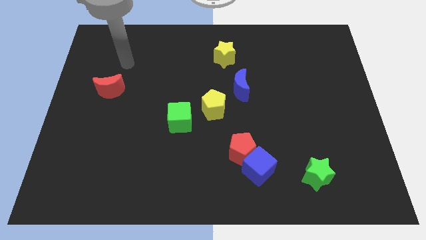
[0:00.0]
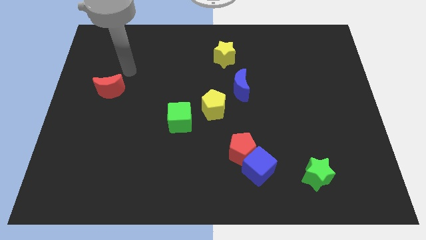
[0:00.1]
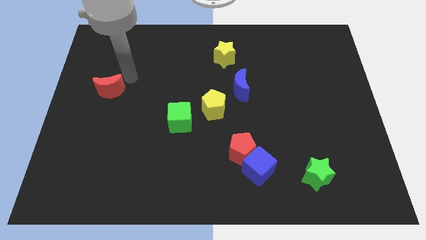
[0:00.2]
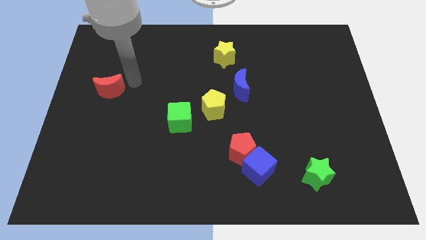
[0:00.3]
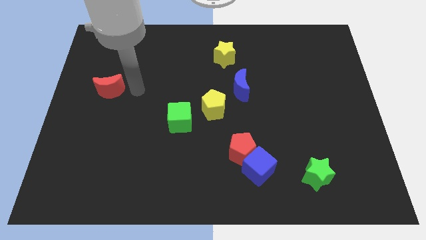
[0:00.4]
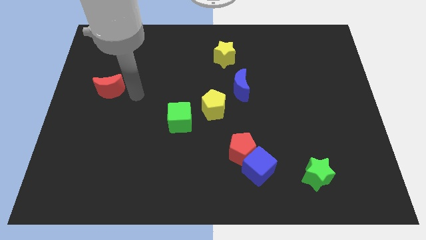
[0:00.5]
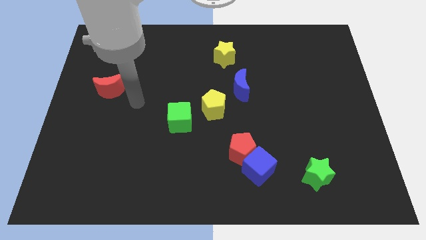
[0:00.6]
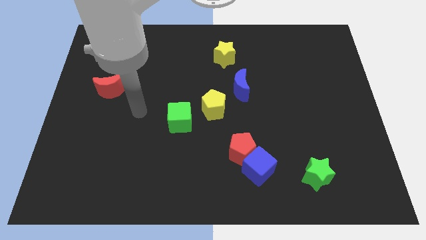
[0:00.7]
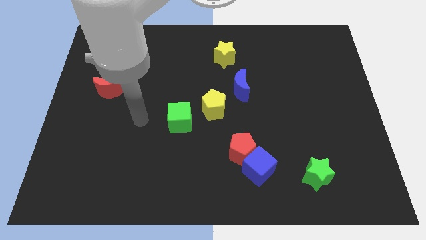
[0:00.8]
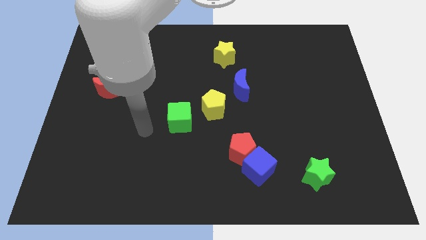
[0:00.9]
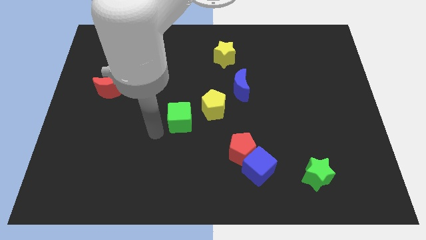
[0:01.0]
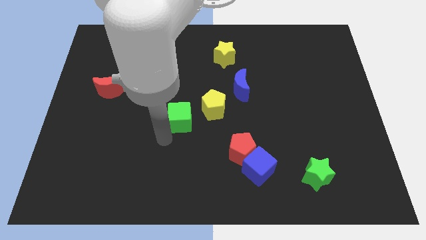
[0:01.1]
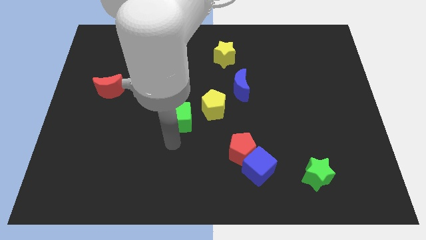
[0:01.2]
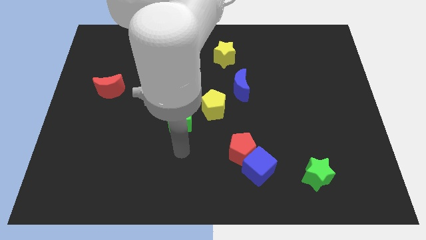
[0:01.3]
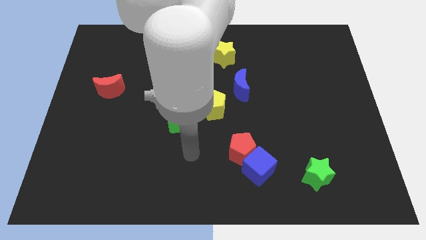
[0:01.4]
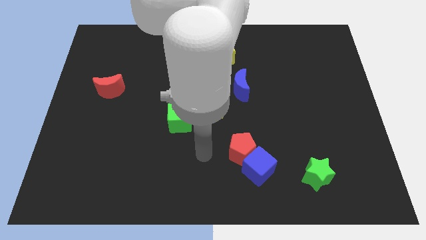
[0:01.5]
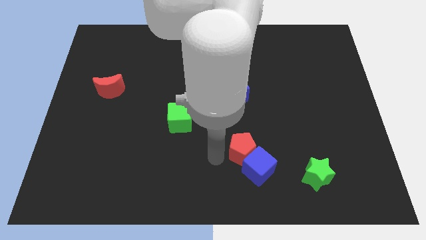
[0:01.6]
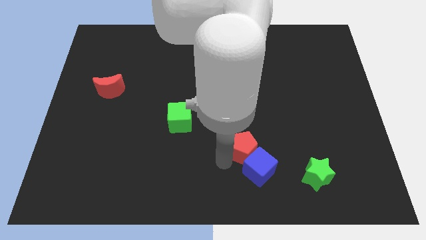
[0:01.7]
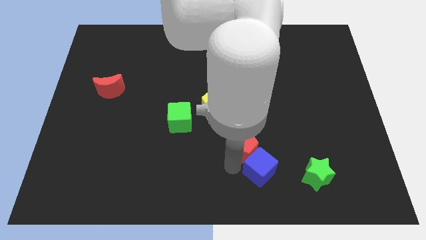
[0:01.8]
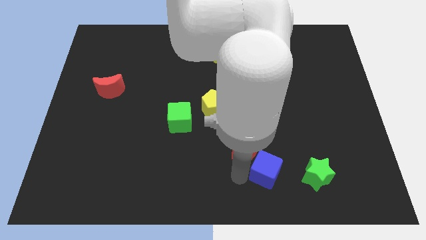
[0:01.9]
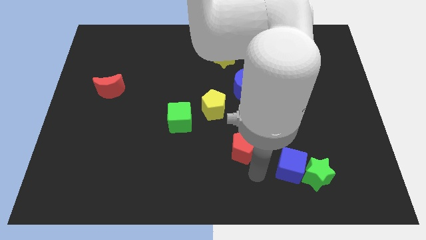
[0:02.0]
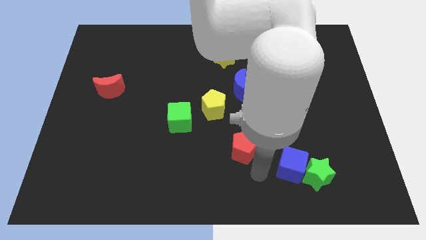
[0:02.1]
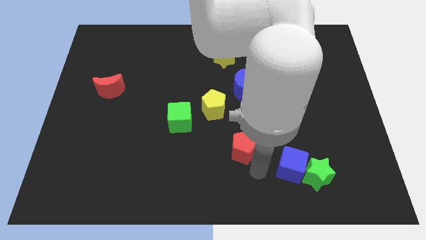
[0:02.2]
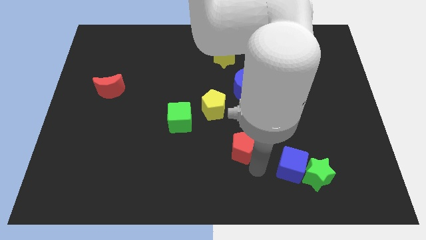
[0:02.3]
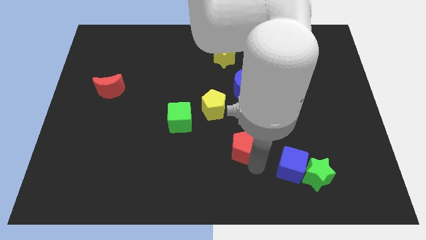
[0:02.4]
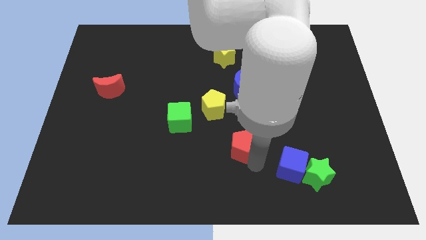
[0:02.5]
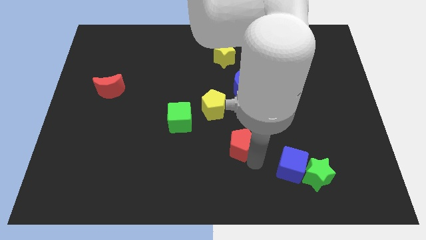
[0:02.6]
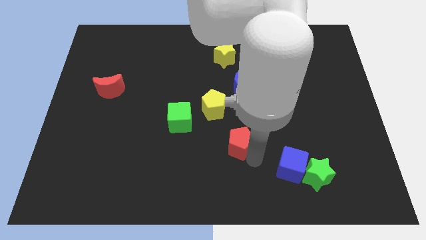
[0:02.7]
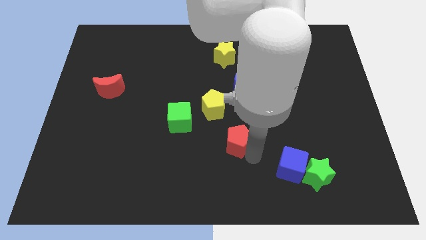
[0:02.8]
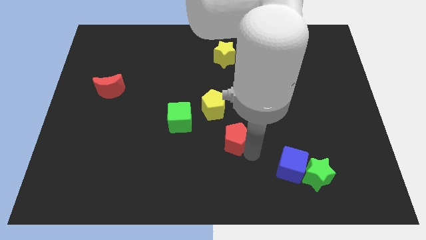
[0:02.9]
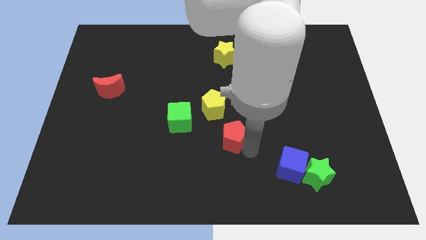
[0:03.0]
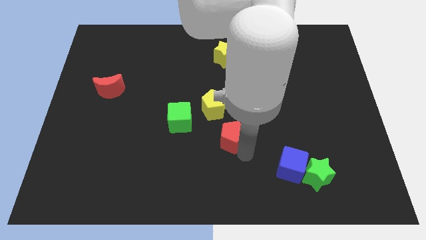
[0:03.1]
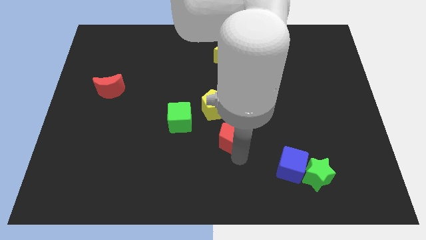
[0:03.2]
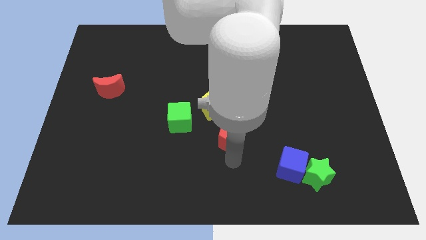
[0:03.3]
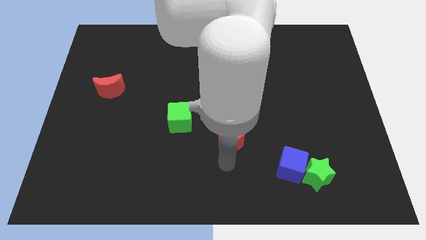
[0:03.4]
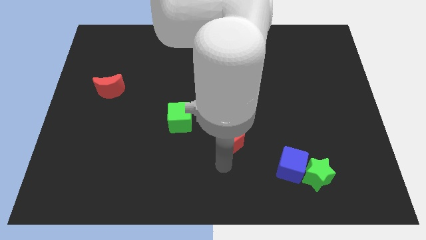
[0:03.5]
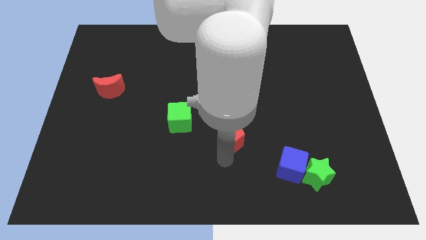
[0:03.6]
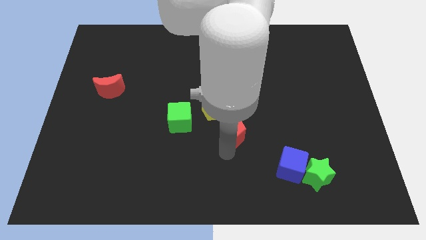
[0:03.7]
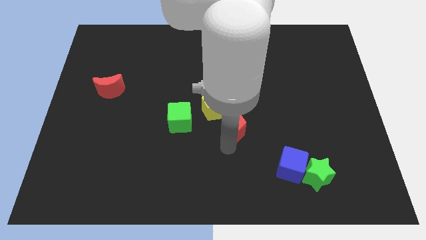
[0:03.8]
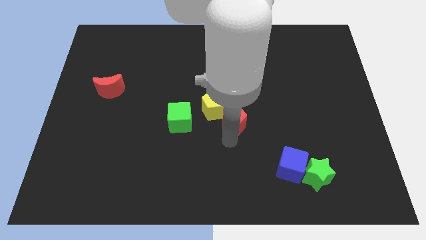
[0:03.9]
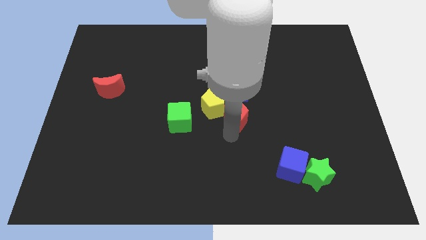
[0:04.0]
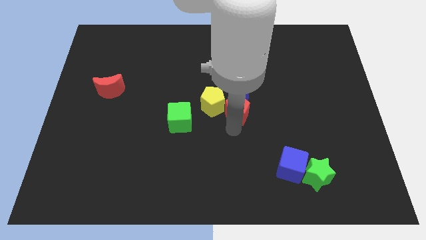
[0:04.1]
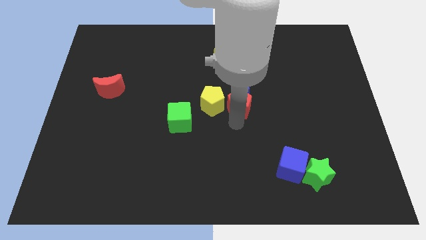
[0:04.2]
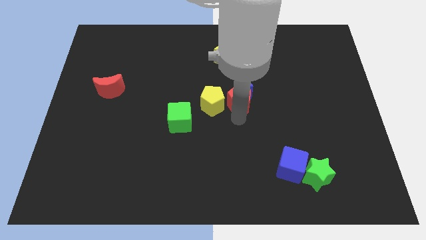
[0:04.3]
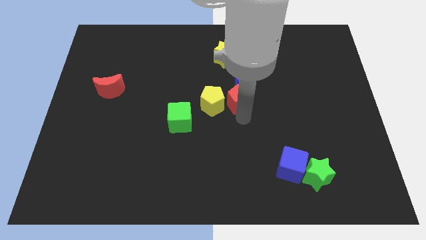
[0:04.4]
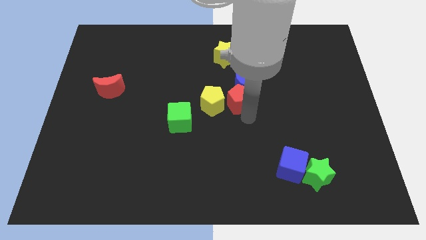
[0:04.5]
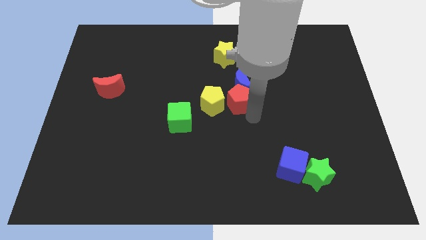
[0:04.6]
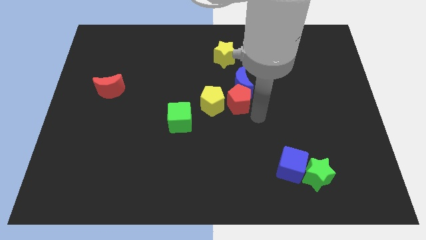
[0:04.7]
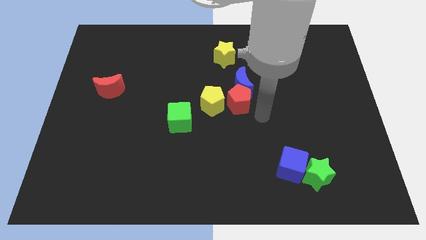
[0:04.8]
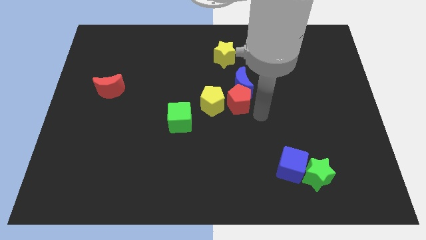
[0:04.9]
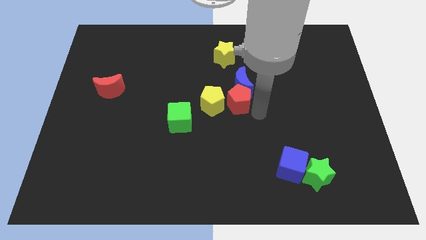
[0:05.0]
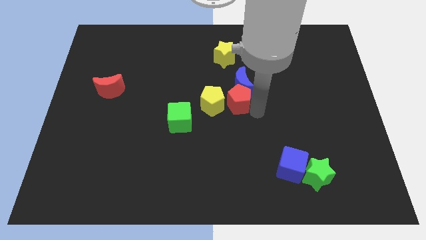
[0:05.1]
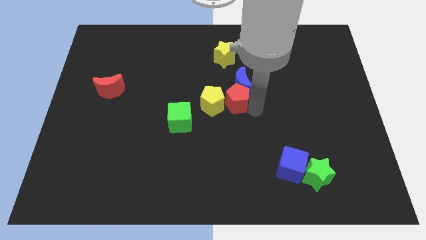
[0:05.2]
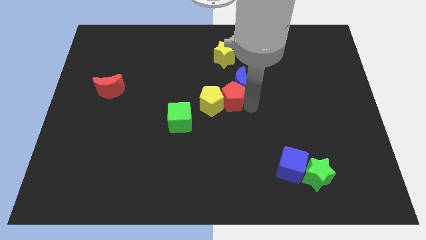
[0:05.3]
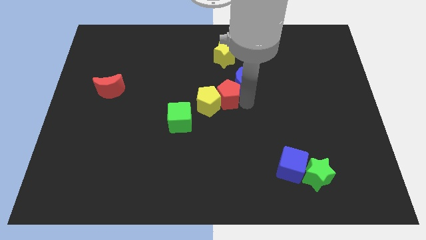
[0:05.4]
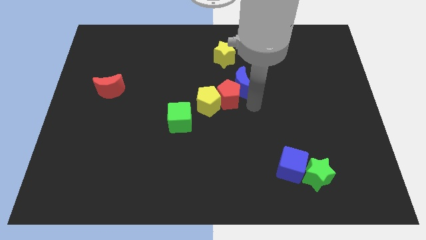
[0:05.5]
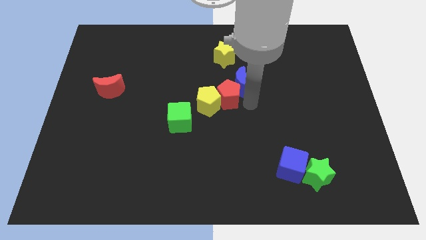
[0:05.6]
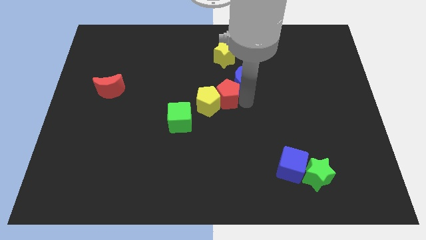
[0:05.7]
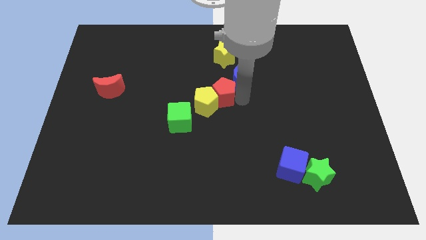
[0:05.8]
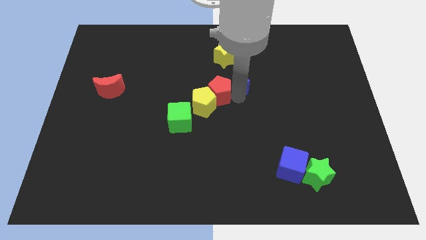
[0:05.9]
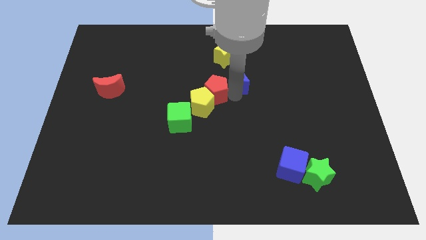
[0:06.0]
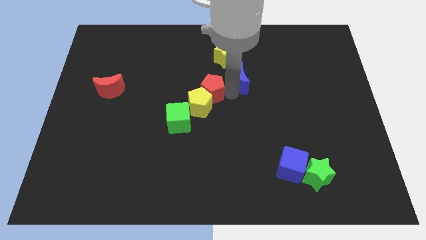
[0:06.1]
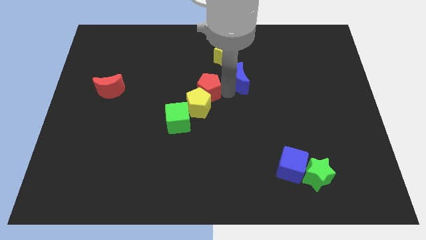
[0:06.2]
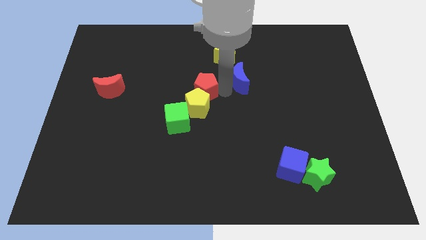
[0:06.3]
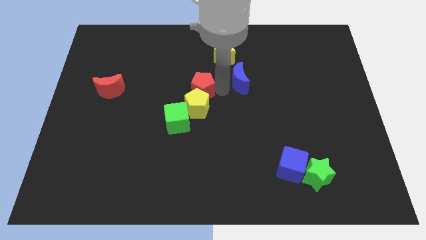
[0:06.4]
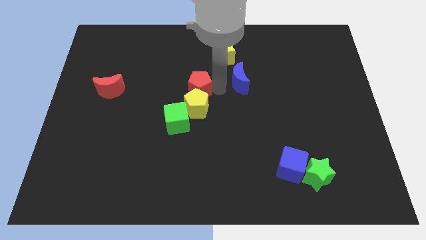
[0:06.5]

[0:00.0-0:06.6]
slide the red pentagon above the green cube

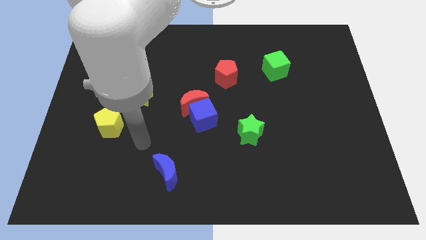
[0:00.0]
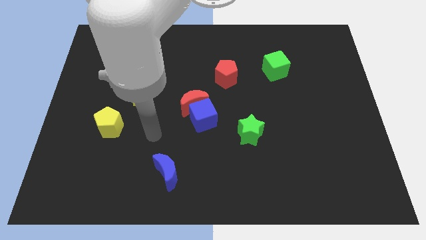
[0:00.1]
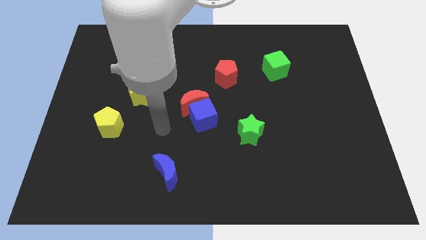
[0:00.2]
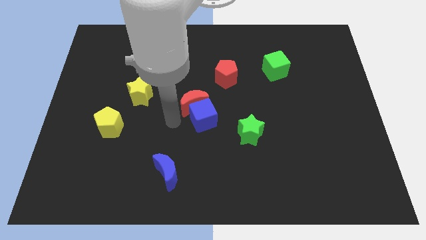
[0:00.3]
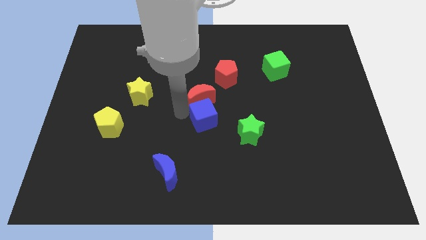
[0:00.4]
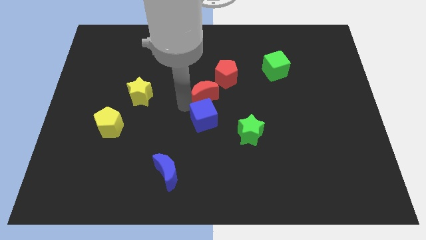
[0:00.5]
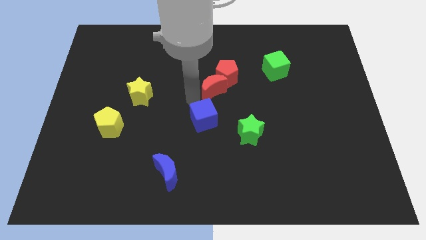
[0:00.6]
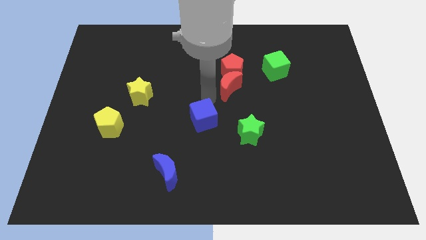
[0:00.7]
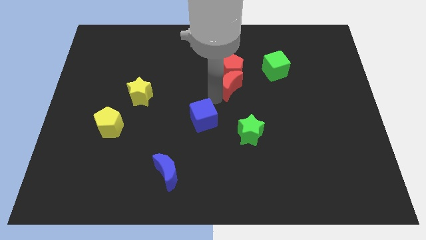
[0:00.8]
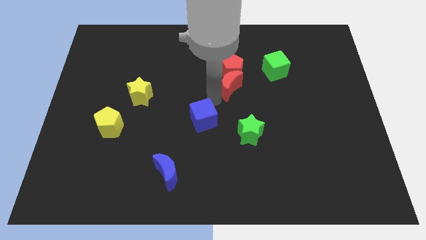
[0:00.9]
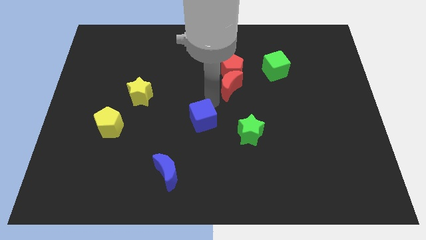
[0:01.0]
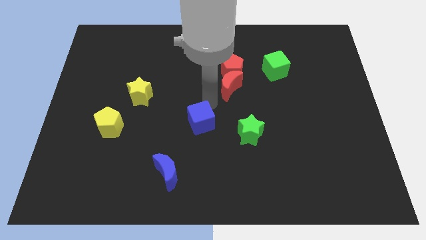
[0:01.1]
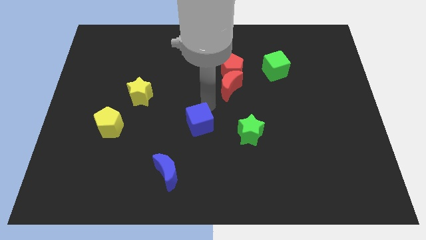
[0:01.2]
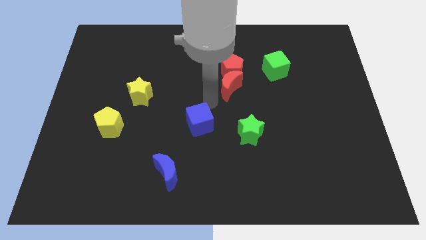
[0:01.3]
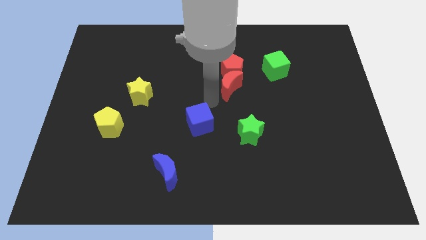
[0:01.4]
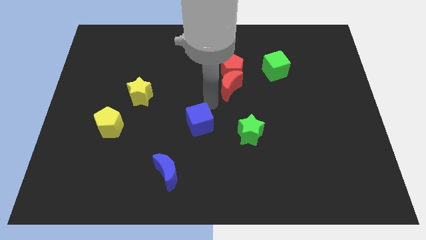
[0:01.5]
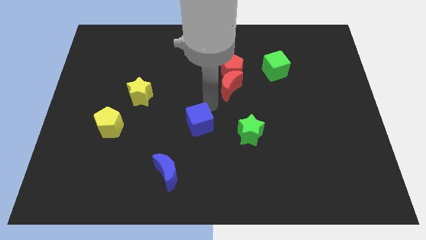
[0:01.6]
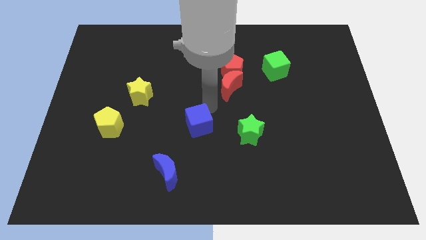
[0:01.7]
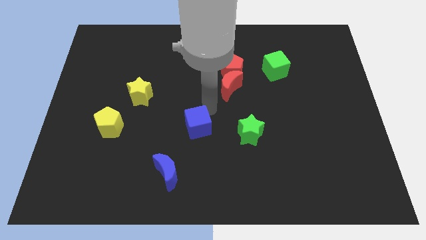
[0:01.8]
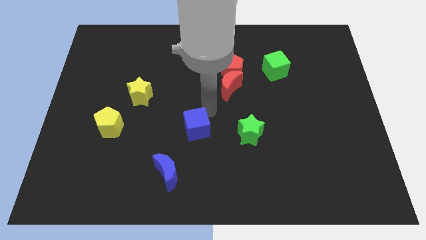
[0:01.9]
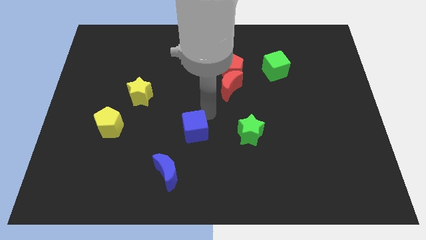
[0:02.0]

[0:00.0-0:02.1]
push the blue cube diagonally up and to the right of the blue moon
